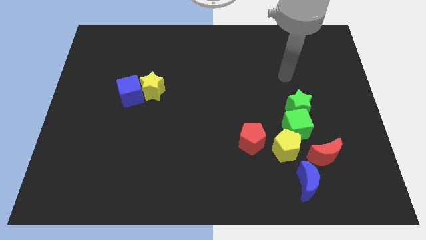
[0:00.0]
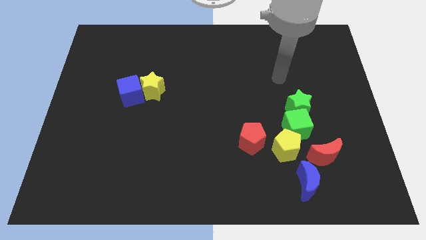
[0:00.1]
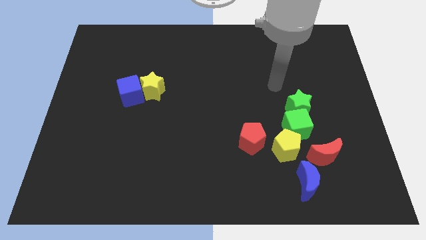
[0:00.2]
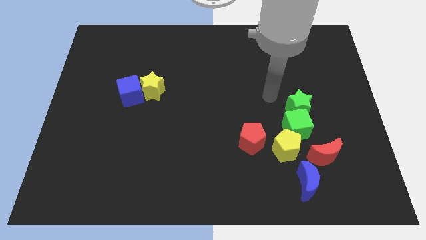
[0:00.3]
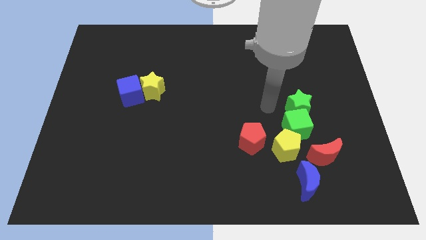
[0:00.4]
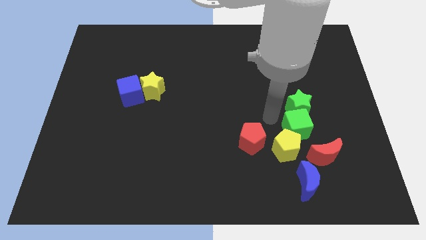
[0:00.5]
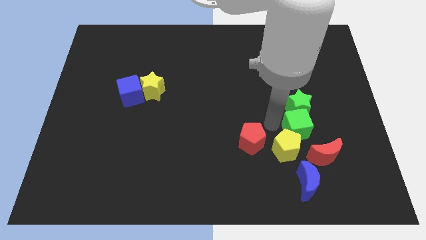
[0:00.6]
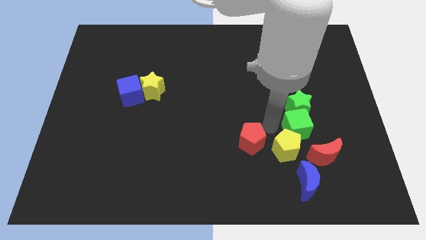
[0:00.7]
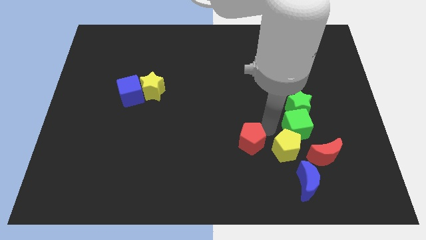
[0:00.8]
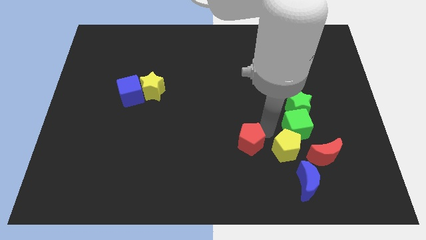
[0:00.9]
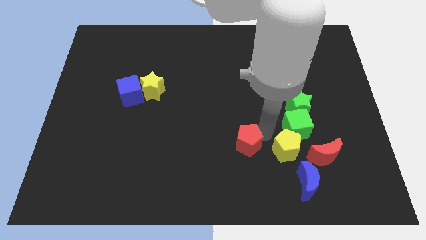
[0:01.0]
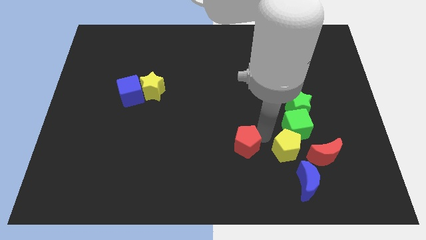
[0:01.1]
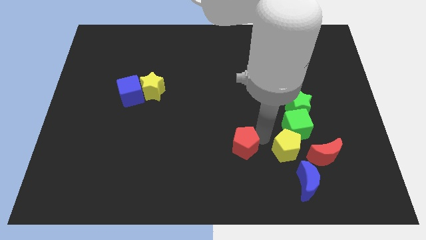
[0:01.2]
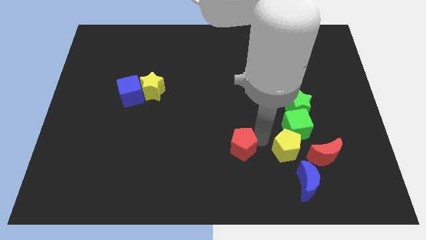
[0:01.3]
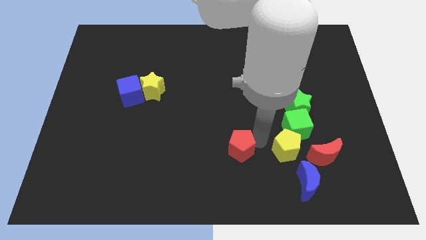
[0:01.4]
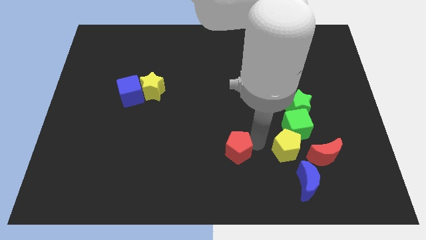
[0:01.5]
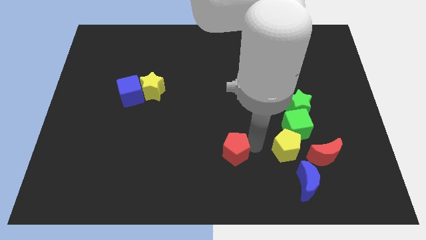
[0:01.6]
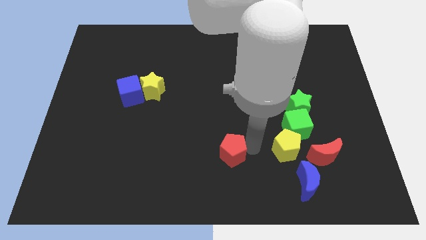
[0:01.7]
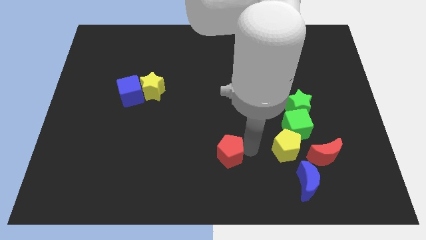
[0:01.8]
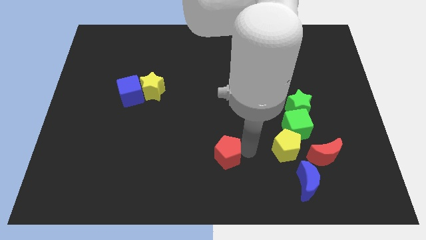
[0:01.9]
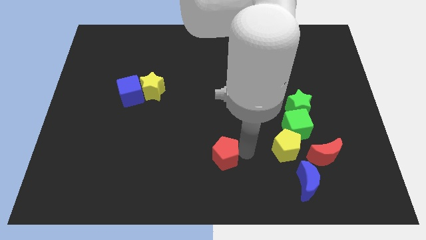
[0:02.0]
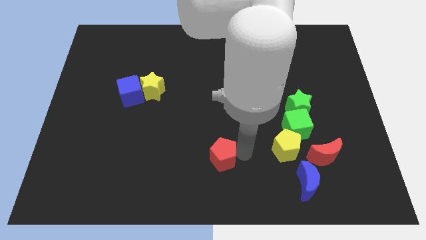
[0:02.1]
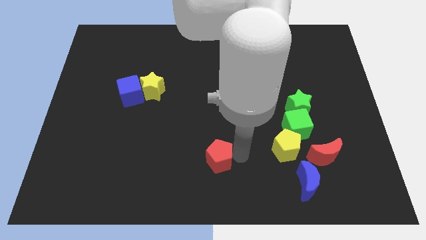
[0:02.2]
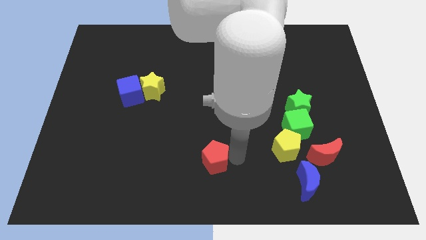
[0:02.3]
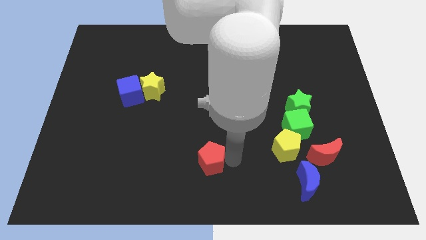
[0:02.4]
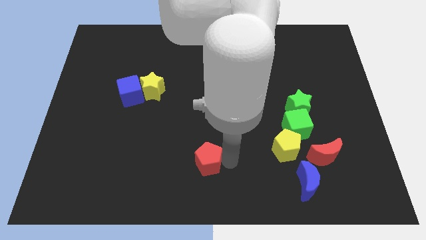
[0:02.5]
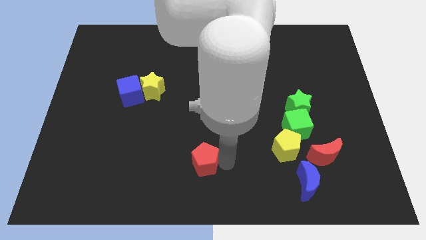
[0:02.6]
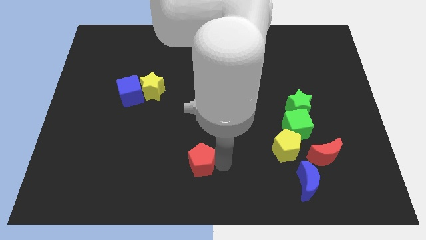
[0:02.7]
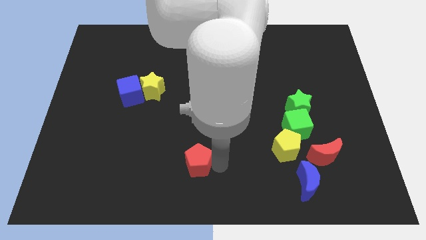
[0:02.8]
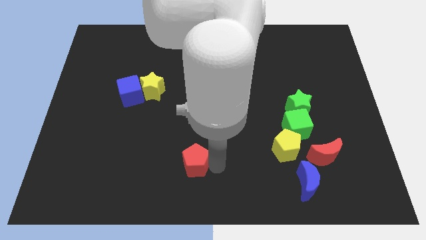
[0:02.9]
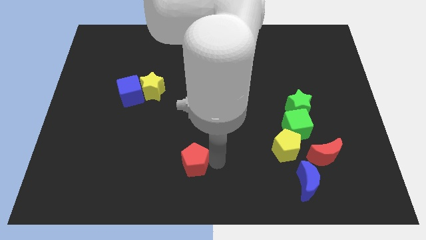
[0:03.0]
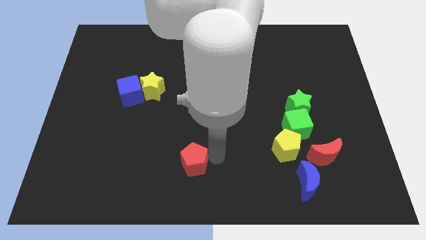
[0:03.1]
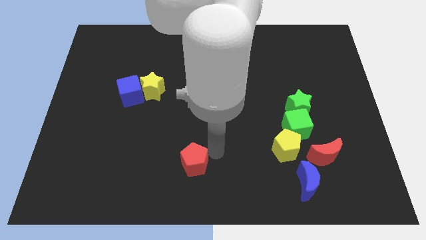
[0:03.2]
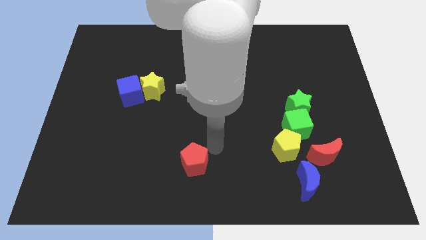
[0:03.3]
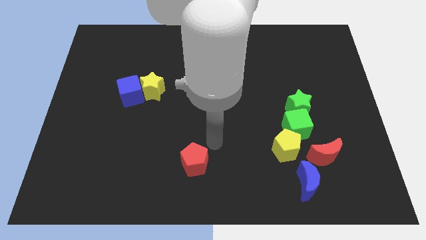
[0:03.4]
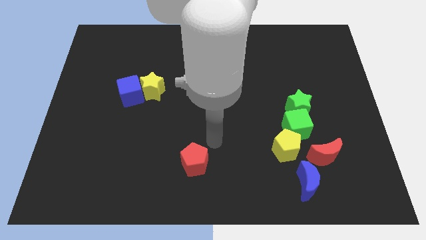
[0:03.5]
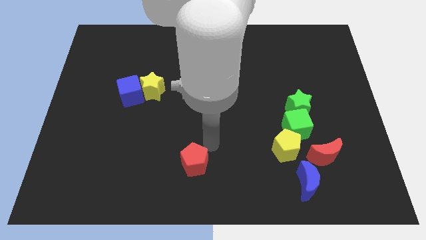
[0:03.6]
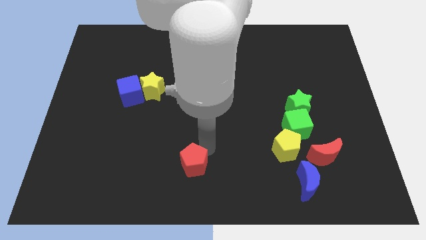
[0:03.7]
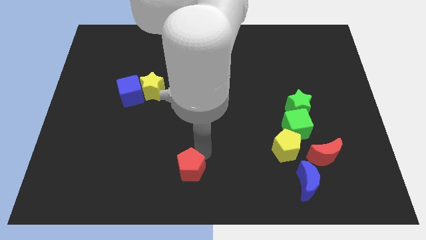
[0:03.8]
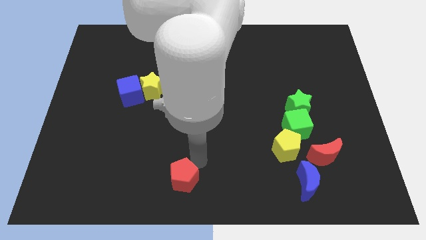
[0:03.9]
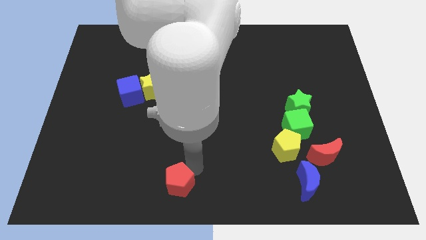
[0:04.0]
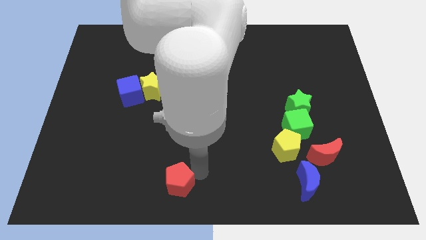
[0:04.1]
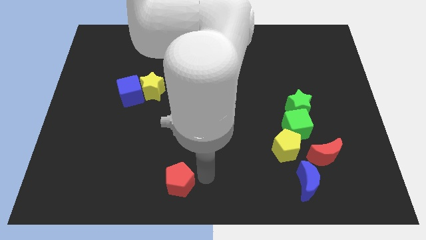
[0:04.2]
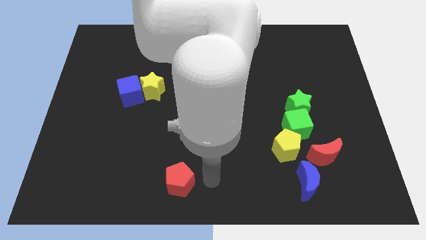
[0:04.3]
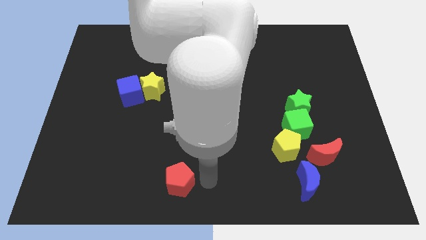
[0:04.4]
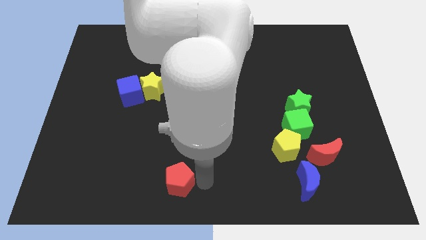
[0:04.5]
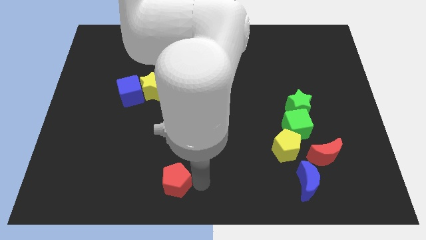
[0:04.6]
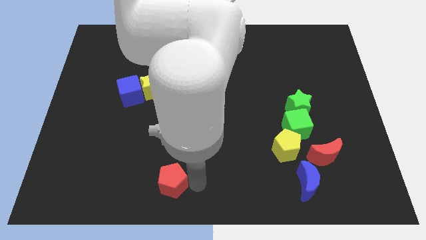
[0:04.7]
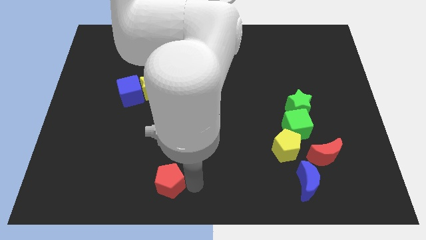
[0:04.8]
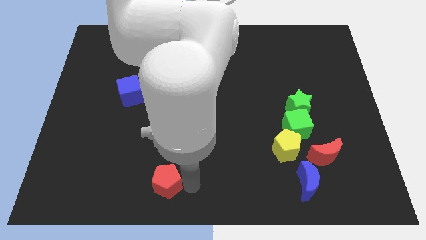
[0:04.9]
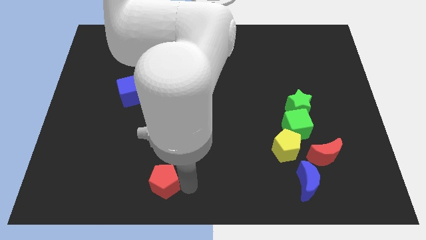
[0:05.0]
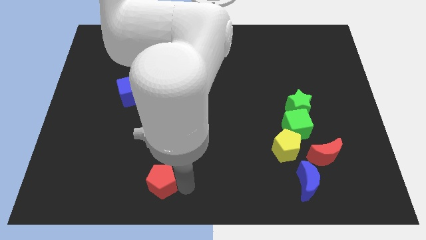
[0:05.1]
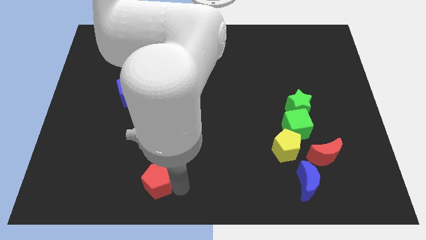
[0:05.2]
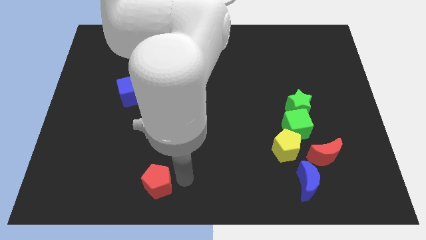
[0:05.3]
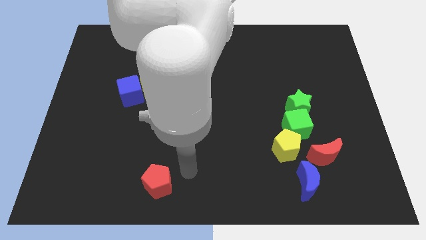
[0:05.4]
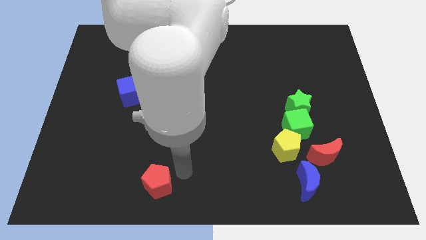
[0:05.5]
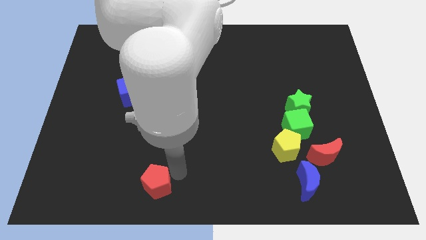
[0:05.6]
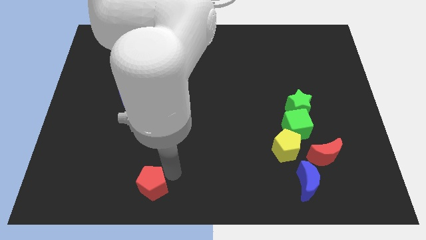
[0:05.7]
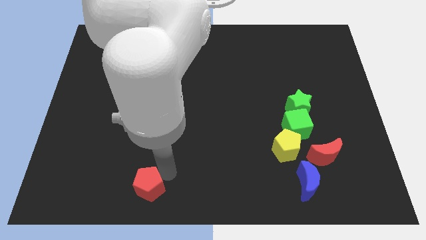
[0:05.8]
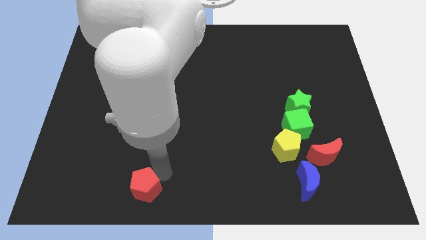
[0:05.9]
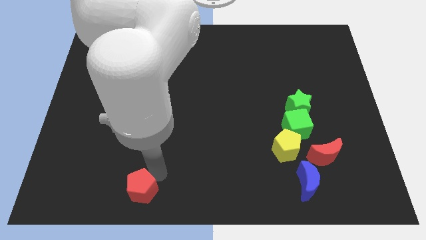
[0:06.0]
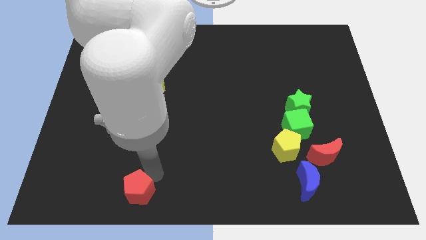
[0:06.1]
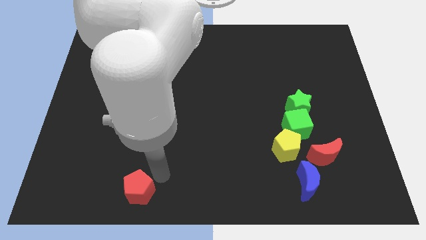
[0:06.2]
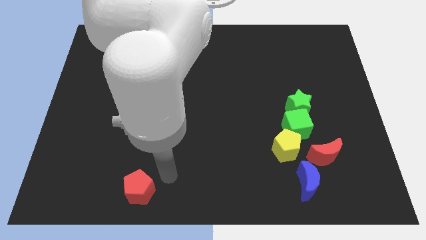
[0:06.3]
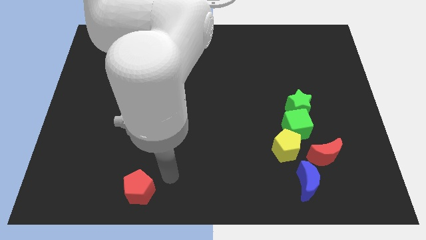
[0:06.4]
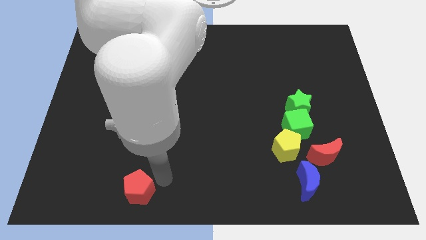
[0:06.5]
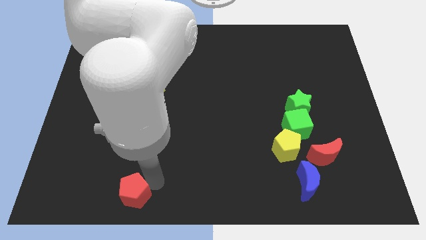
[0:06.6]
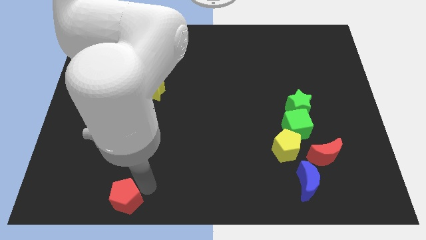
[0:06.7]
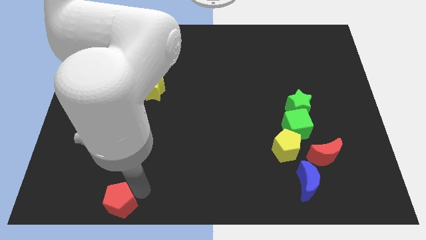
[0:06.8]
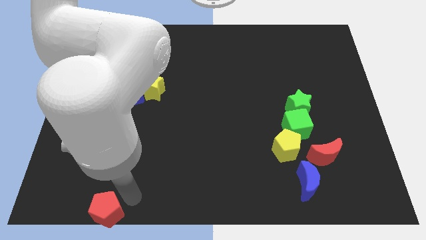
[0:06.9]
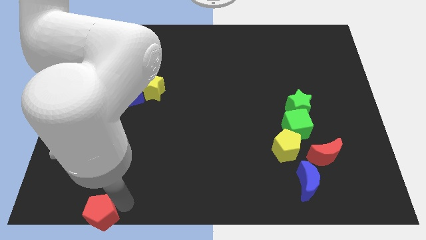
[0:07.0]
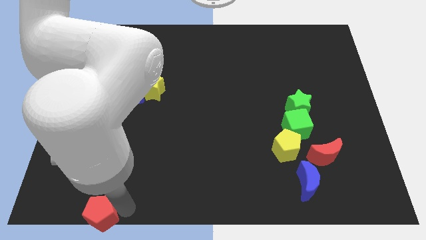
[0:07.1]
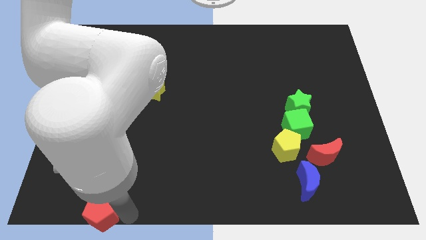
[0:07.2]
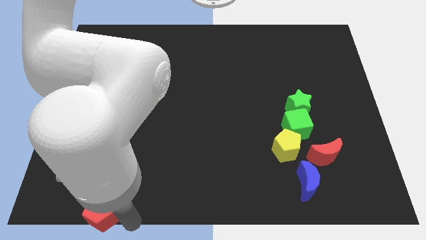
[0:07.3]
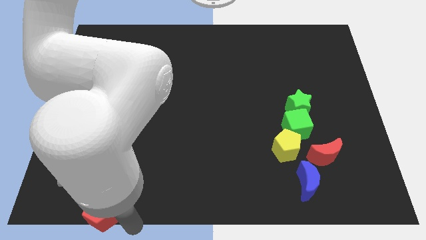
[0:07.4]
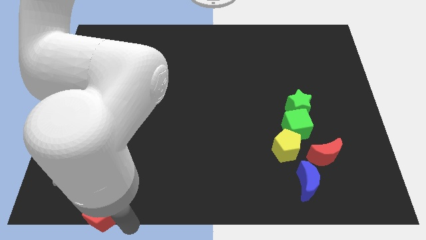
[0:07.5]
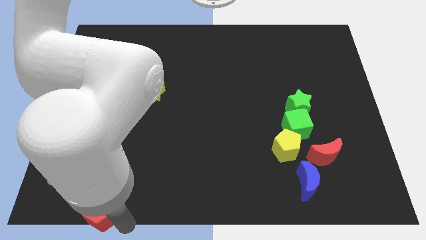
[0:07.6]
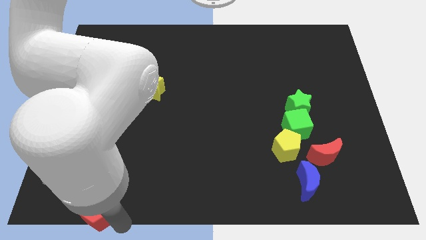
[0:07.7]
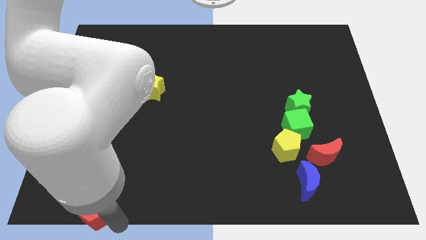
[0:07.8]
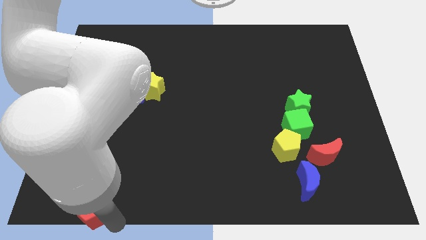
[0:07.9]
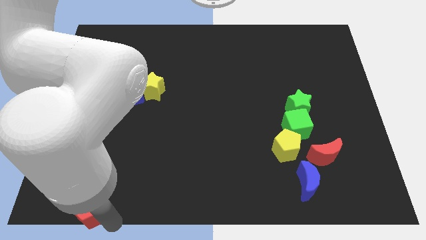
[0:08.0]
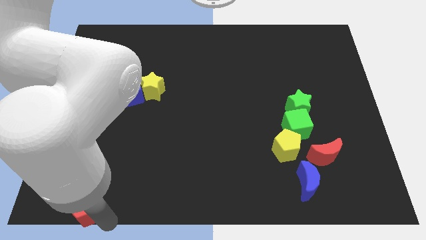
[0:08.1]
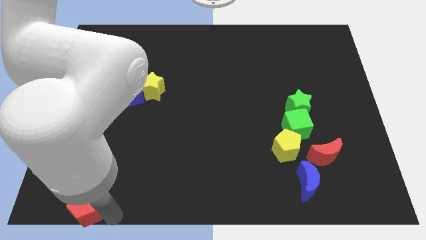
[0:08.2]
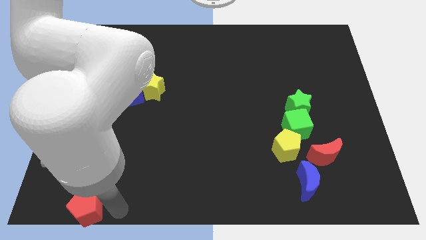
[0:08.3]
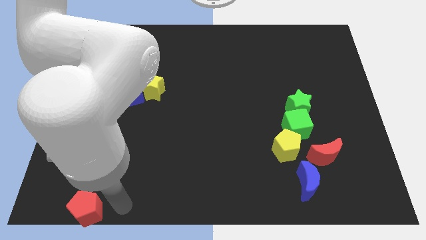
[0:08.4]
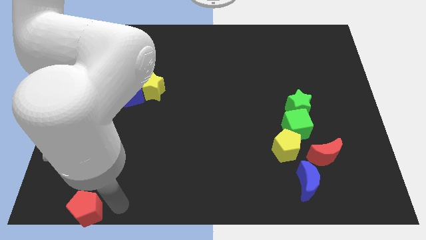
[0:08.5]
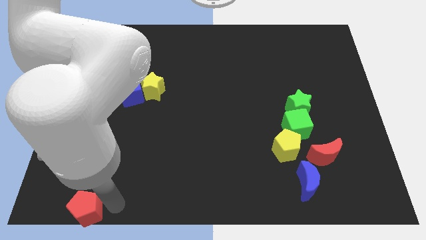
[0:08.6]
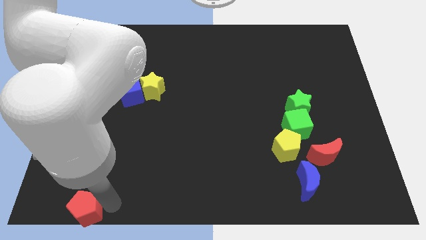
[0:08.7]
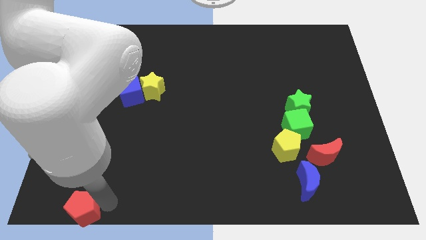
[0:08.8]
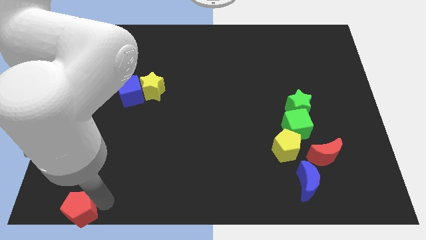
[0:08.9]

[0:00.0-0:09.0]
slide the red pentagon to the bottom left of the board
